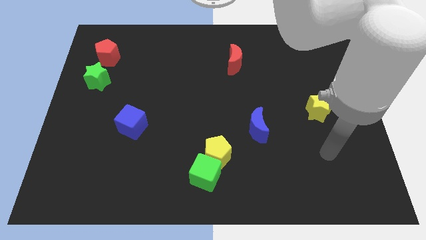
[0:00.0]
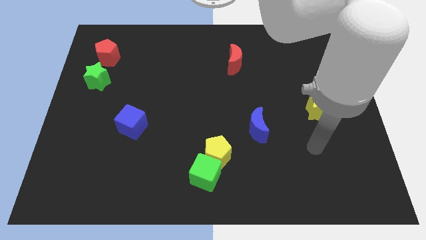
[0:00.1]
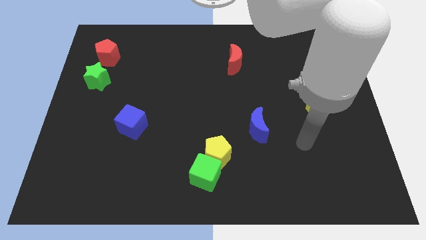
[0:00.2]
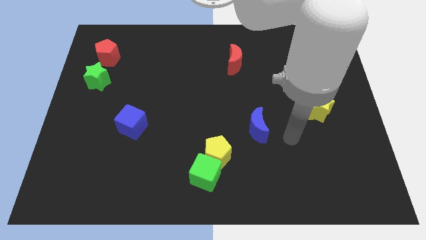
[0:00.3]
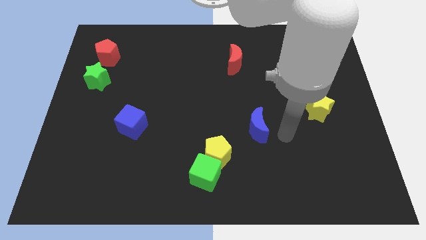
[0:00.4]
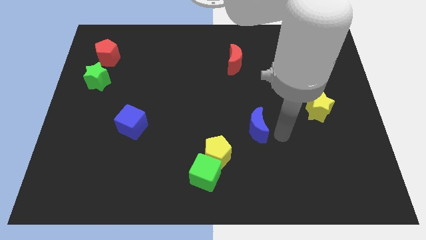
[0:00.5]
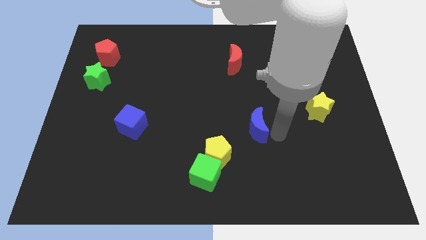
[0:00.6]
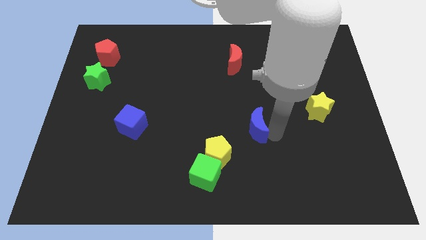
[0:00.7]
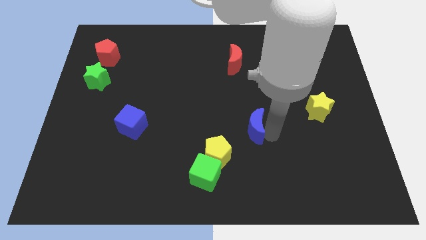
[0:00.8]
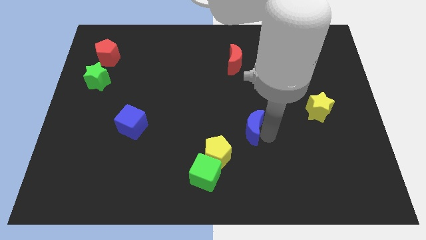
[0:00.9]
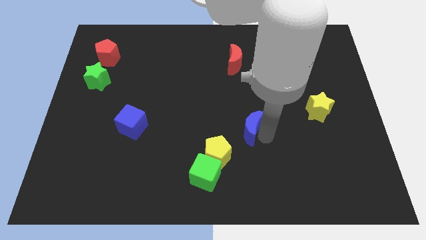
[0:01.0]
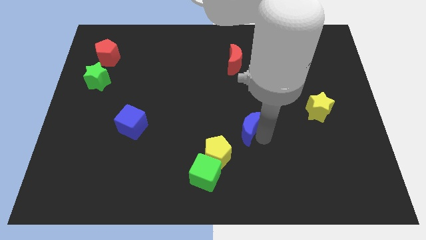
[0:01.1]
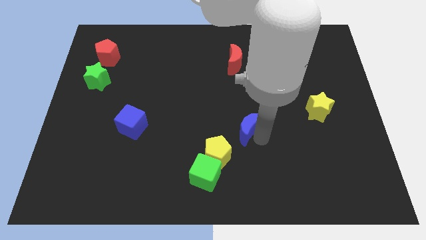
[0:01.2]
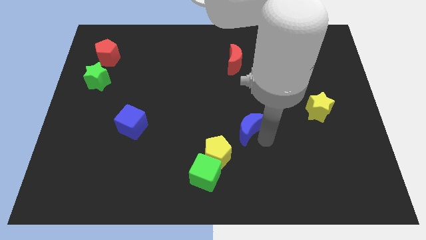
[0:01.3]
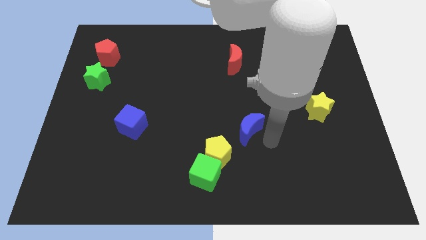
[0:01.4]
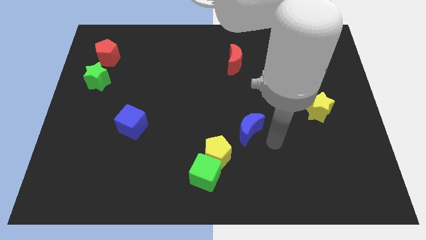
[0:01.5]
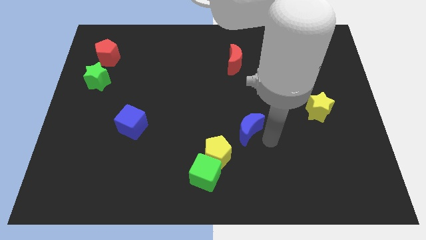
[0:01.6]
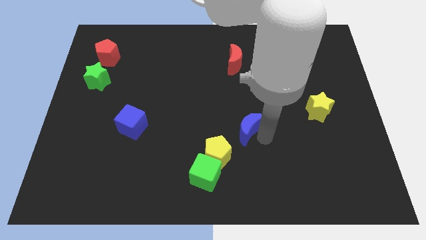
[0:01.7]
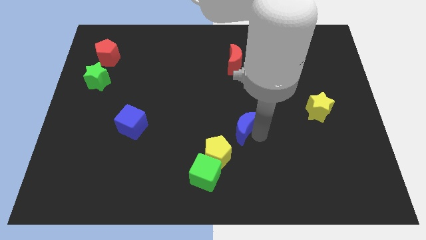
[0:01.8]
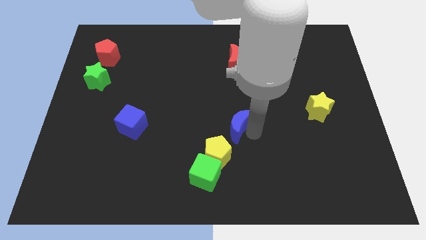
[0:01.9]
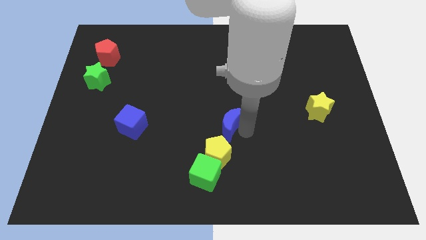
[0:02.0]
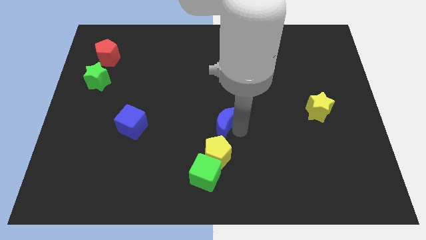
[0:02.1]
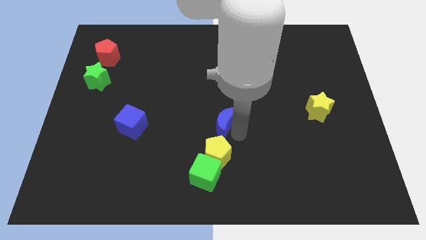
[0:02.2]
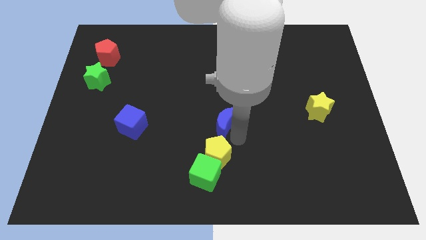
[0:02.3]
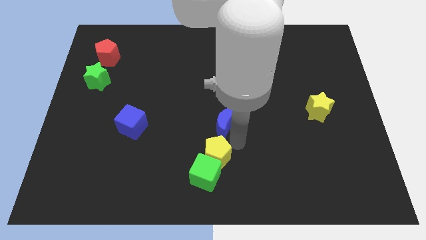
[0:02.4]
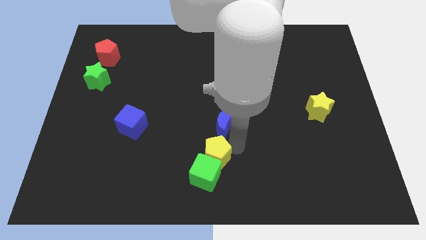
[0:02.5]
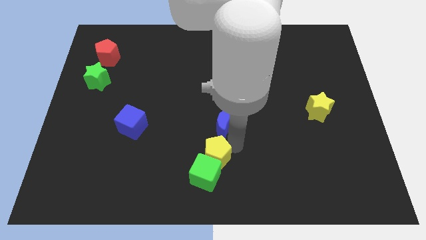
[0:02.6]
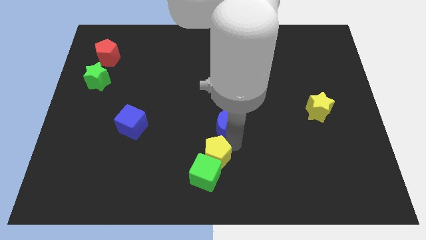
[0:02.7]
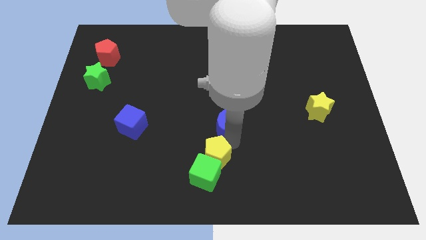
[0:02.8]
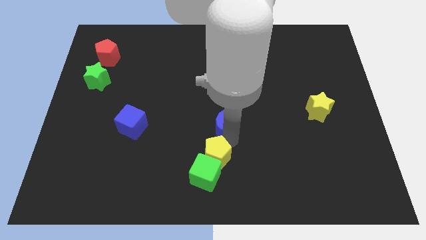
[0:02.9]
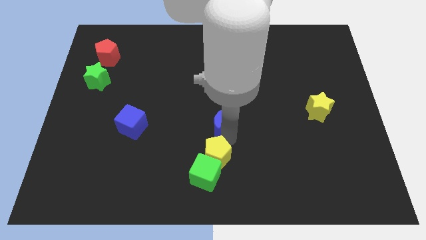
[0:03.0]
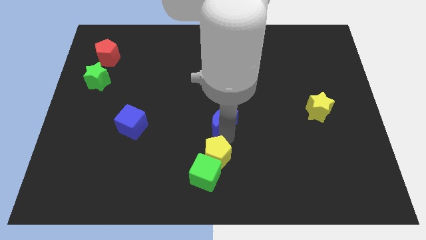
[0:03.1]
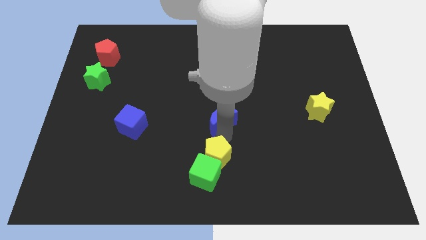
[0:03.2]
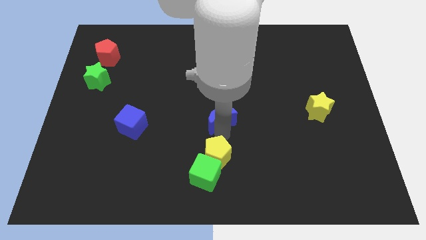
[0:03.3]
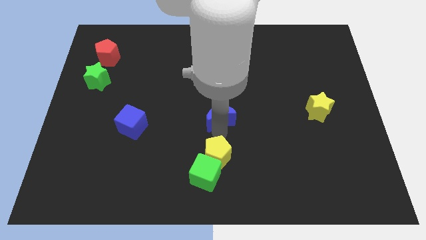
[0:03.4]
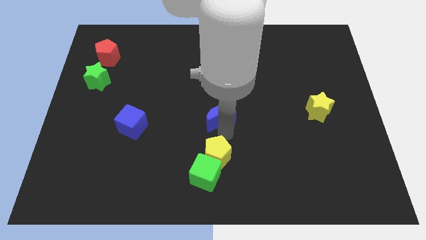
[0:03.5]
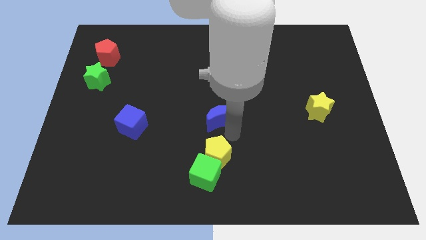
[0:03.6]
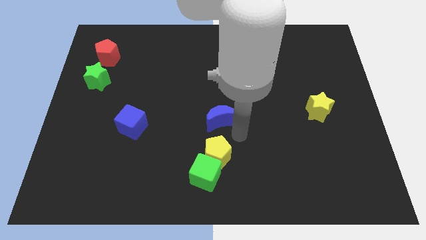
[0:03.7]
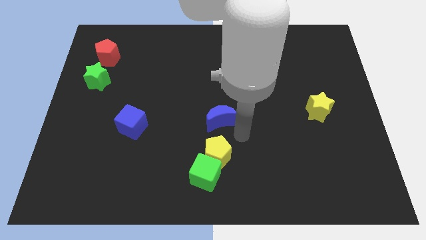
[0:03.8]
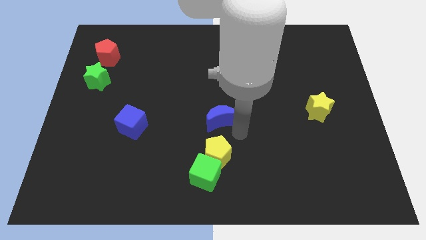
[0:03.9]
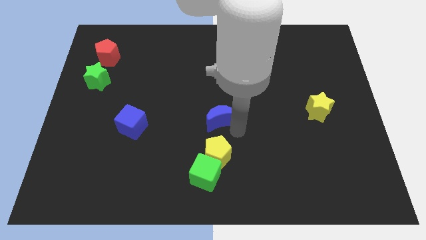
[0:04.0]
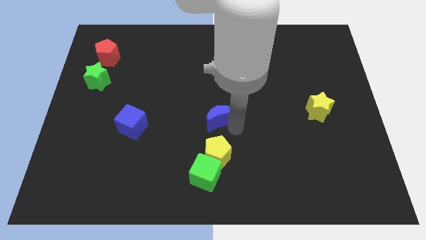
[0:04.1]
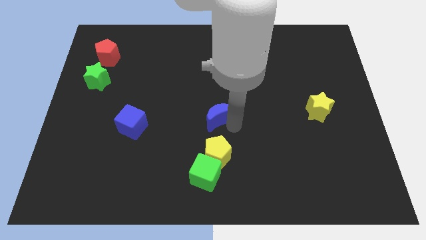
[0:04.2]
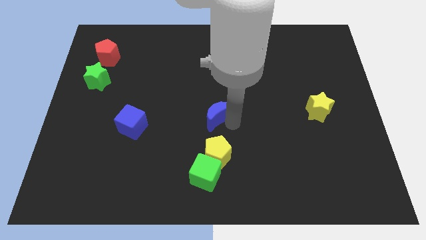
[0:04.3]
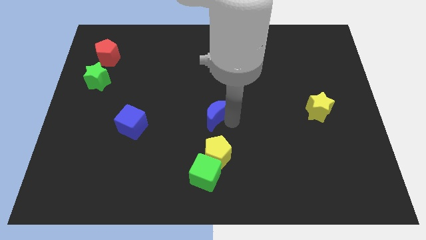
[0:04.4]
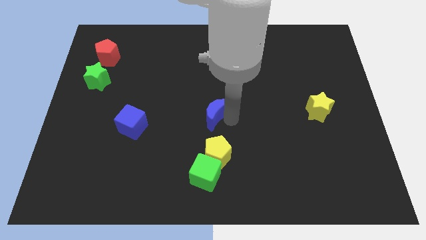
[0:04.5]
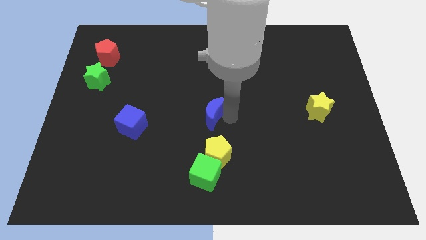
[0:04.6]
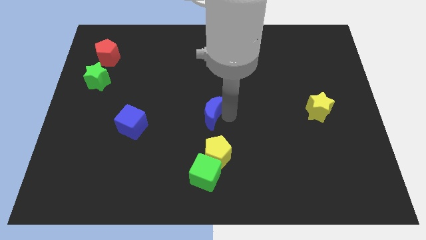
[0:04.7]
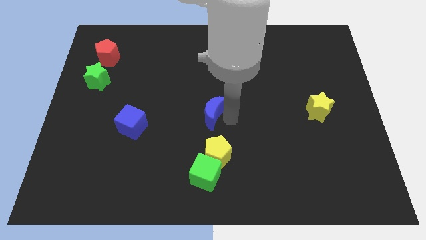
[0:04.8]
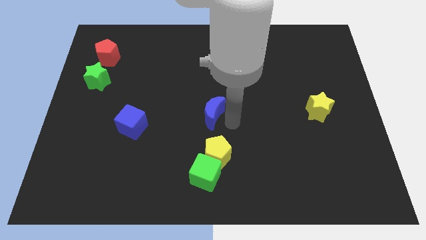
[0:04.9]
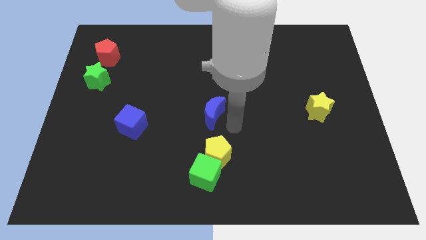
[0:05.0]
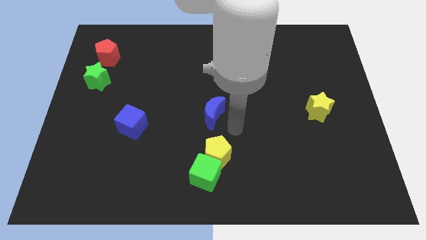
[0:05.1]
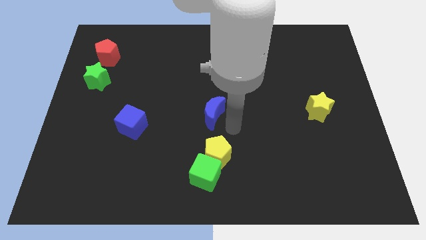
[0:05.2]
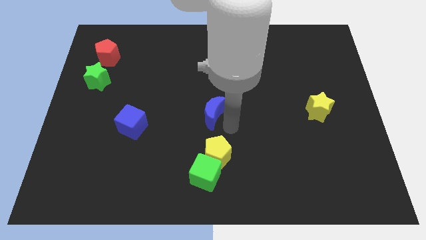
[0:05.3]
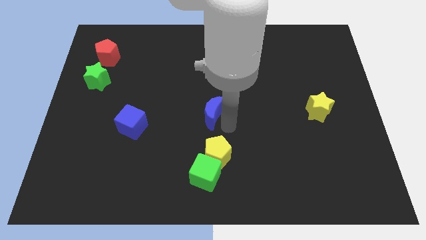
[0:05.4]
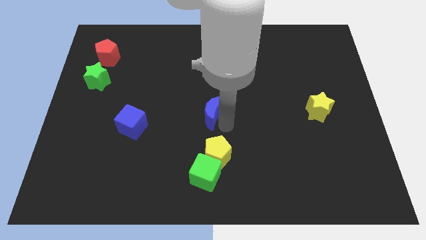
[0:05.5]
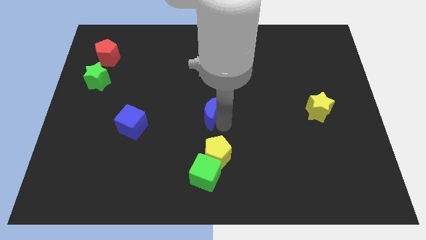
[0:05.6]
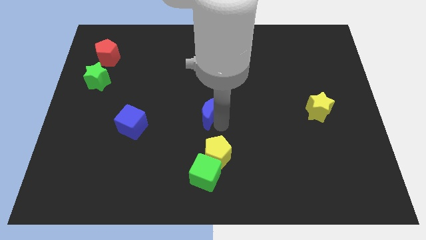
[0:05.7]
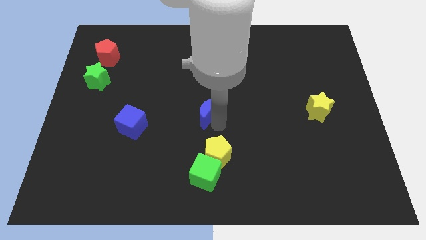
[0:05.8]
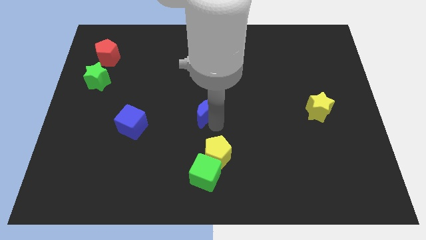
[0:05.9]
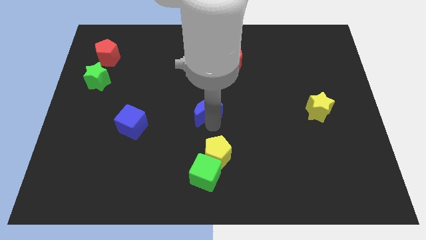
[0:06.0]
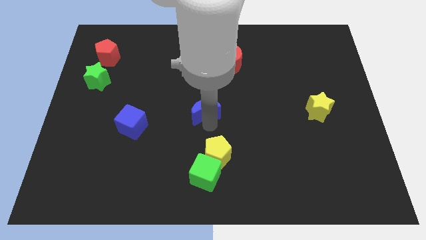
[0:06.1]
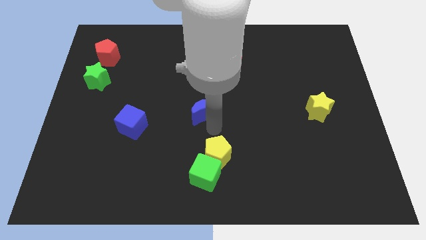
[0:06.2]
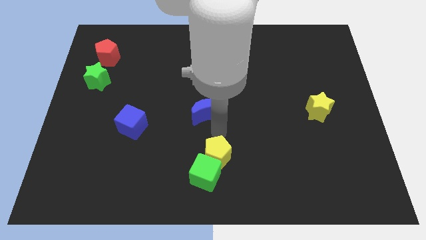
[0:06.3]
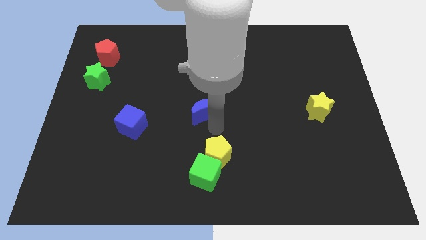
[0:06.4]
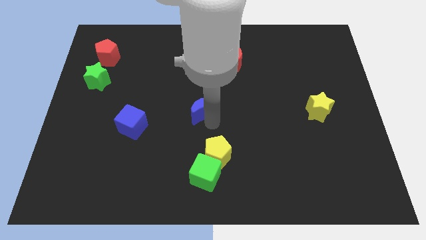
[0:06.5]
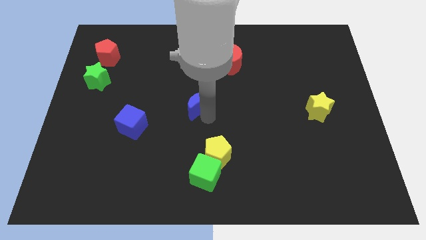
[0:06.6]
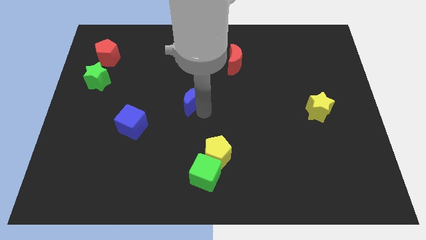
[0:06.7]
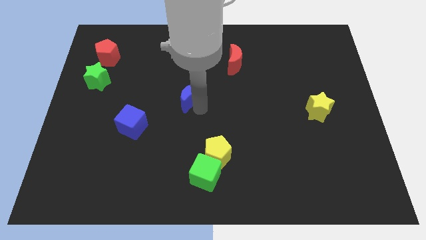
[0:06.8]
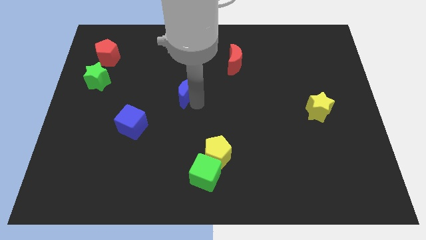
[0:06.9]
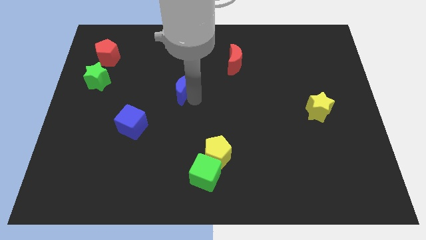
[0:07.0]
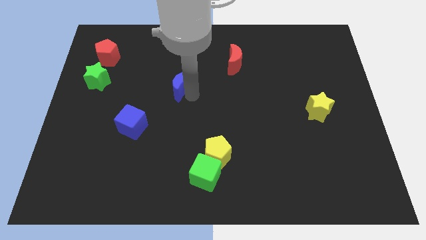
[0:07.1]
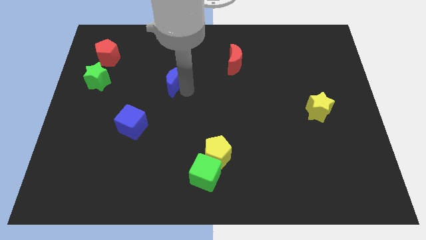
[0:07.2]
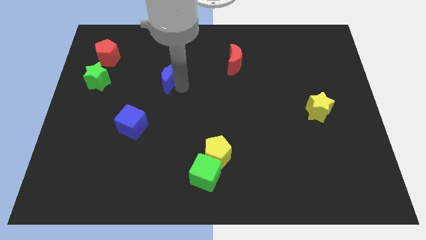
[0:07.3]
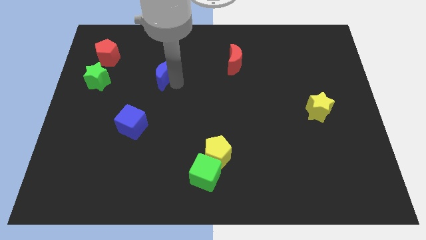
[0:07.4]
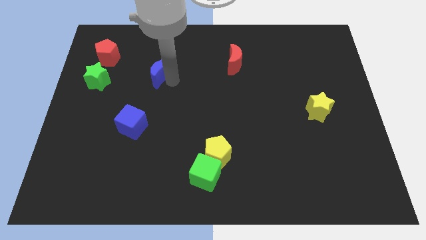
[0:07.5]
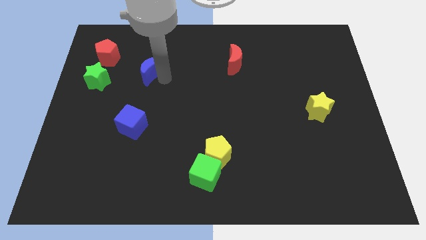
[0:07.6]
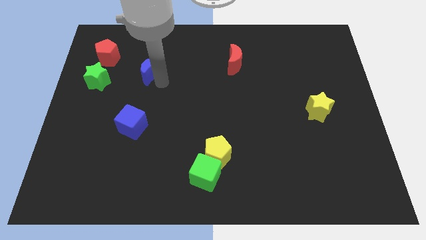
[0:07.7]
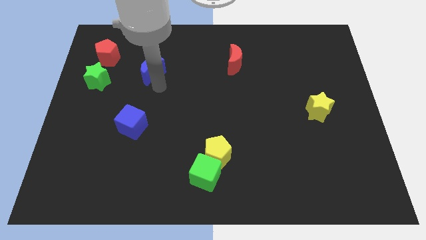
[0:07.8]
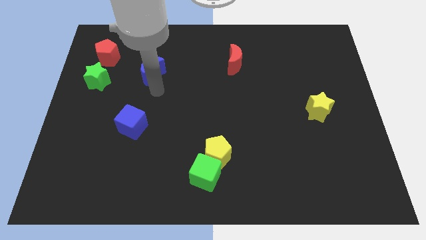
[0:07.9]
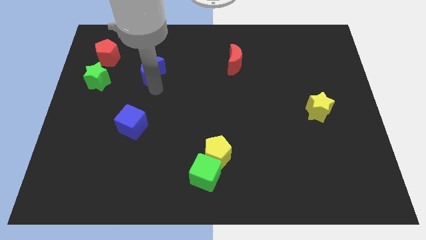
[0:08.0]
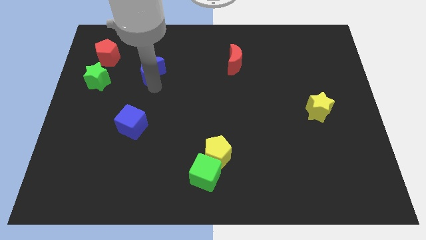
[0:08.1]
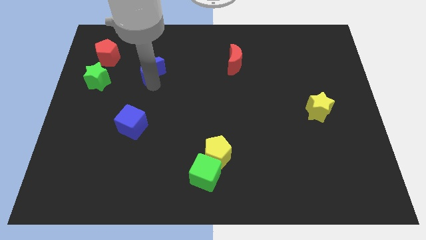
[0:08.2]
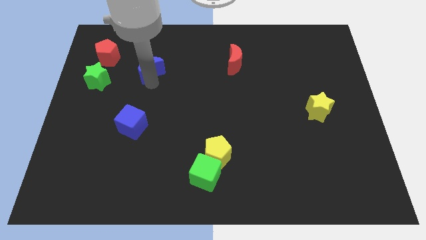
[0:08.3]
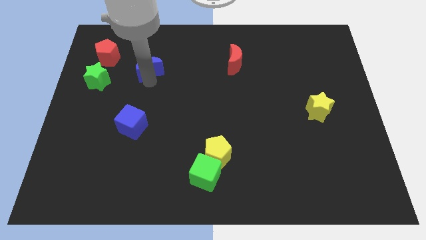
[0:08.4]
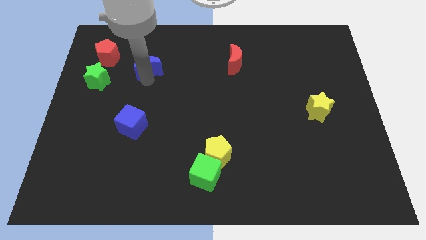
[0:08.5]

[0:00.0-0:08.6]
slide the blue moon to the right of the red pentagon
